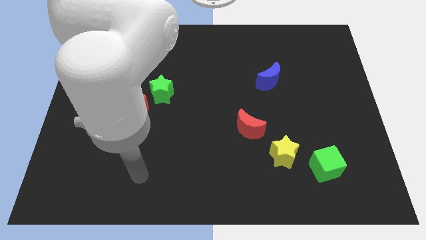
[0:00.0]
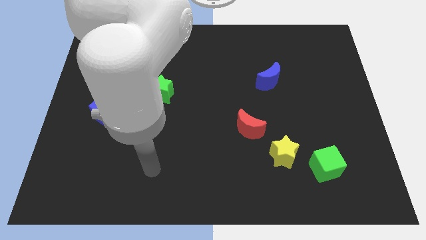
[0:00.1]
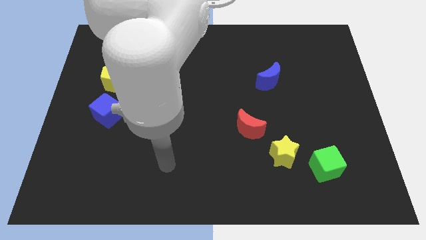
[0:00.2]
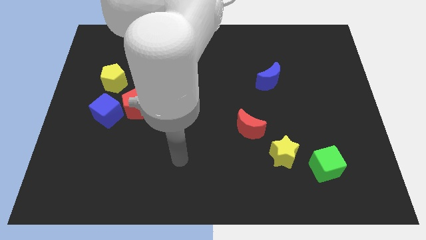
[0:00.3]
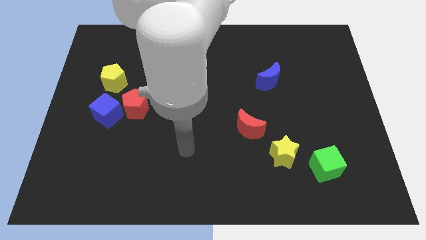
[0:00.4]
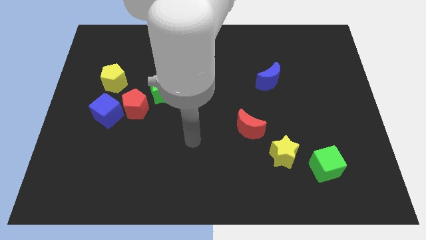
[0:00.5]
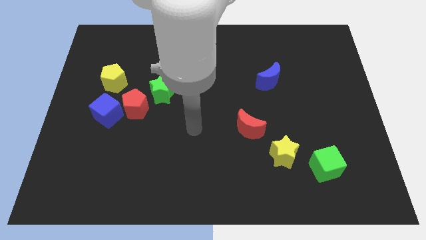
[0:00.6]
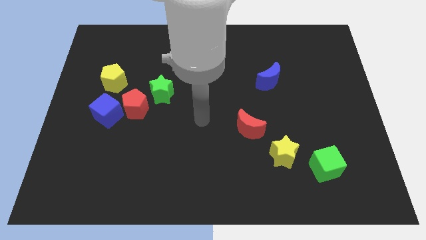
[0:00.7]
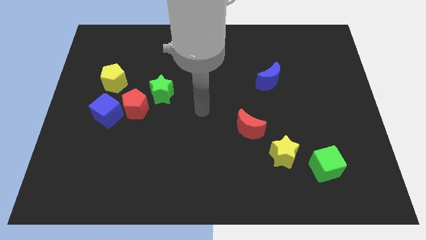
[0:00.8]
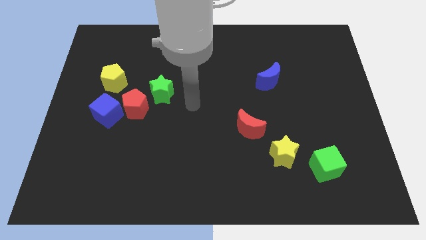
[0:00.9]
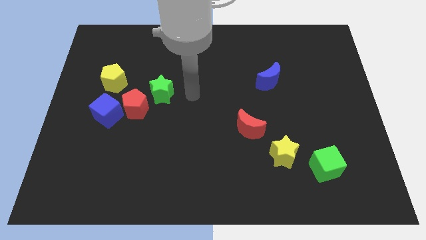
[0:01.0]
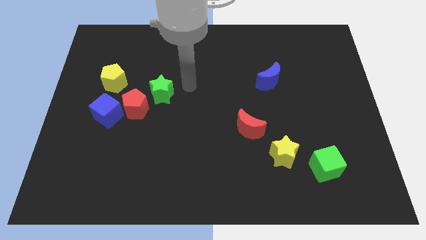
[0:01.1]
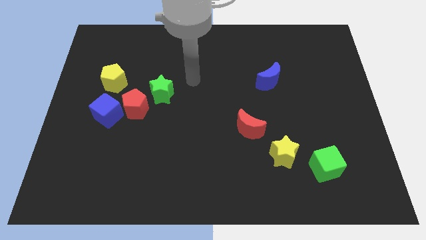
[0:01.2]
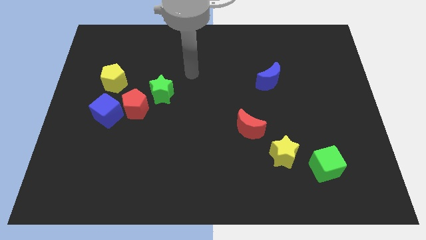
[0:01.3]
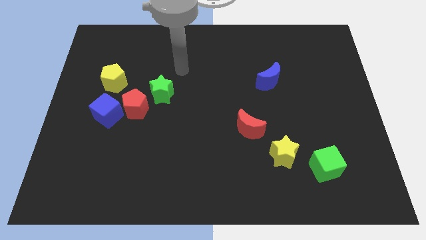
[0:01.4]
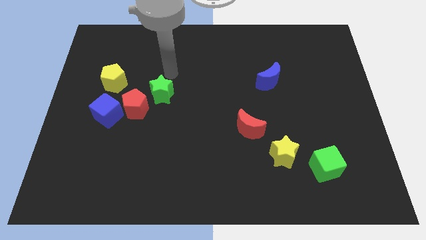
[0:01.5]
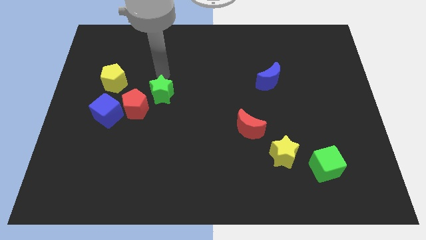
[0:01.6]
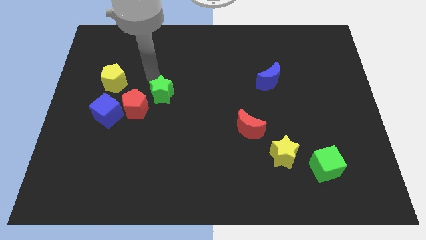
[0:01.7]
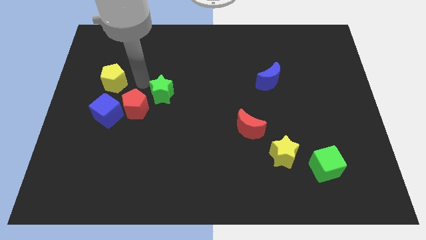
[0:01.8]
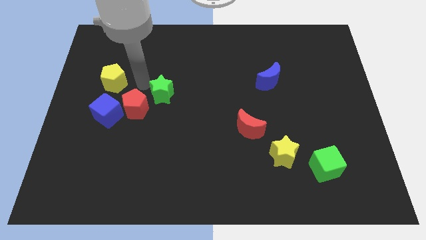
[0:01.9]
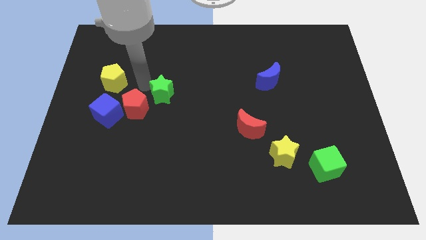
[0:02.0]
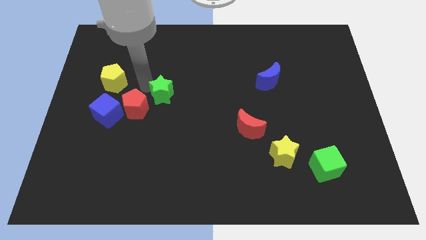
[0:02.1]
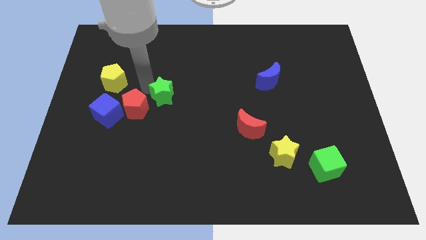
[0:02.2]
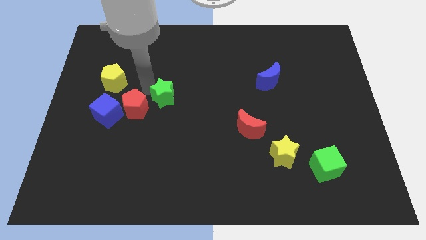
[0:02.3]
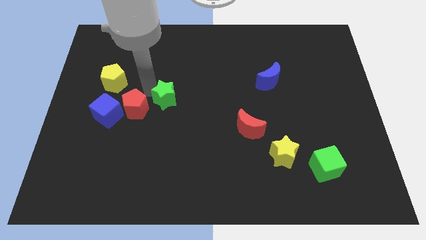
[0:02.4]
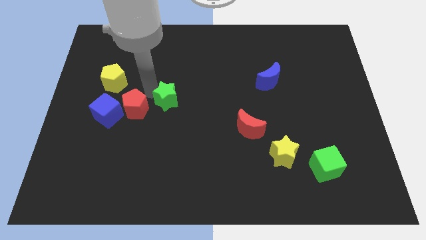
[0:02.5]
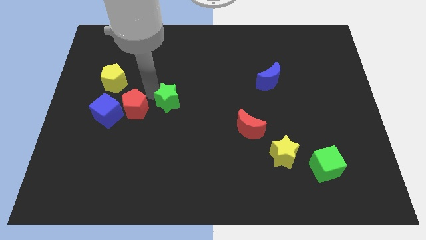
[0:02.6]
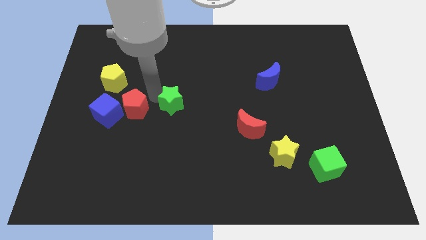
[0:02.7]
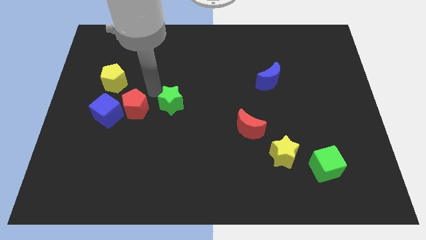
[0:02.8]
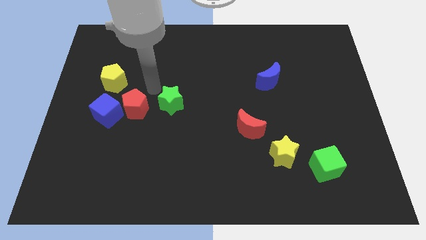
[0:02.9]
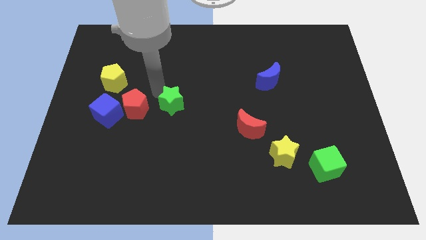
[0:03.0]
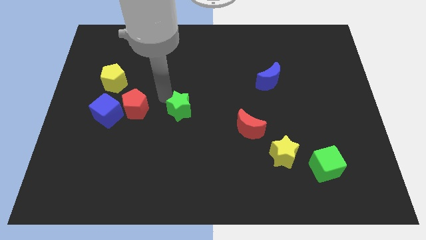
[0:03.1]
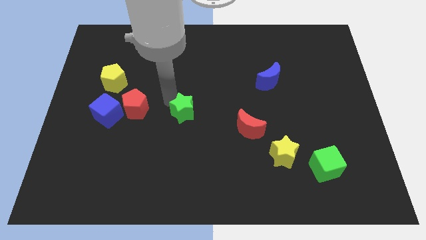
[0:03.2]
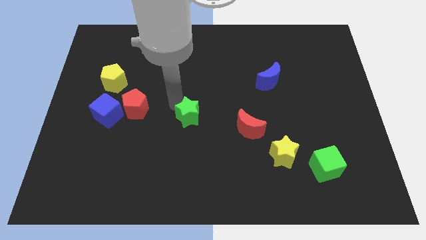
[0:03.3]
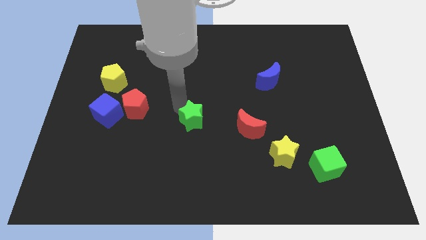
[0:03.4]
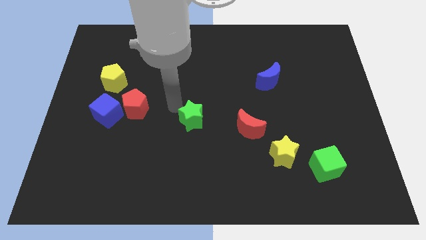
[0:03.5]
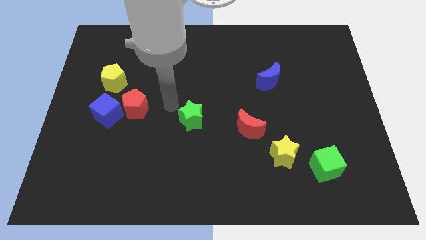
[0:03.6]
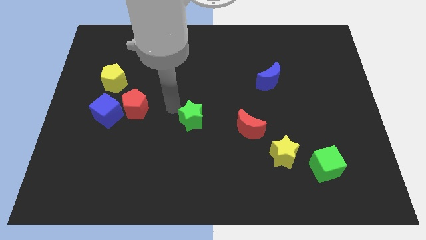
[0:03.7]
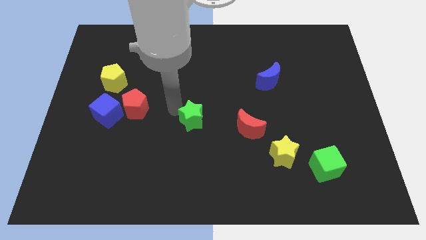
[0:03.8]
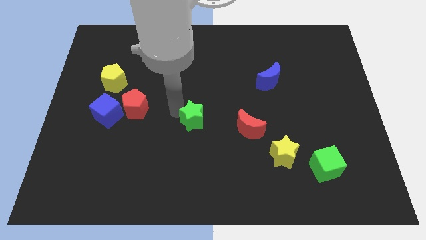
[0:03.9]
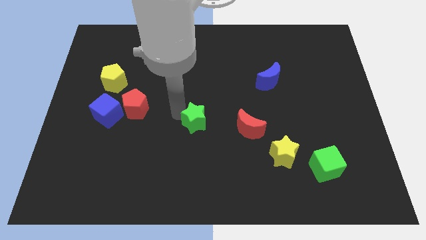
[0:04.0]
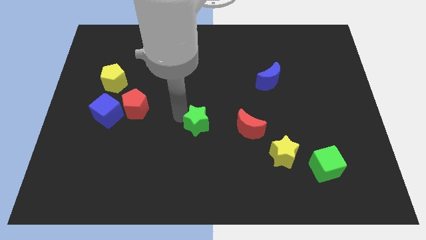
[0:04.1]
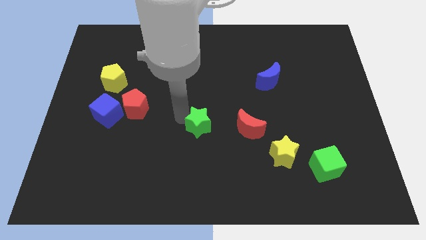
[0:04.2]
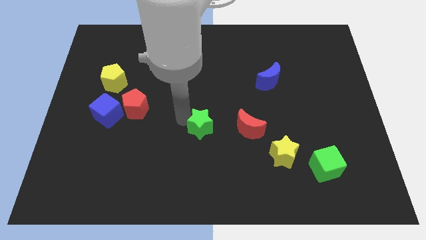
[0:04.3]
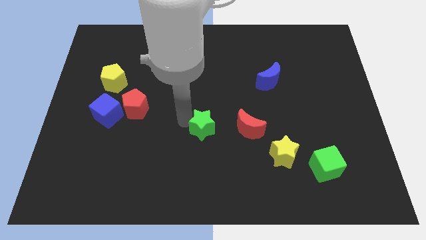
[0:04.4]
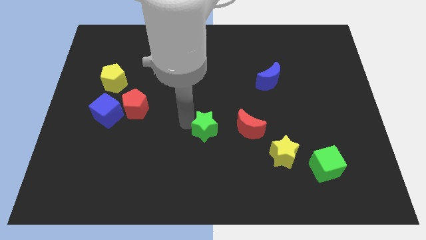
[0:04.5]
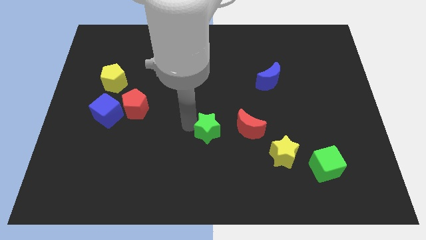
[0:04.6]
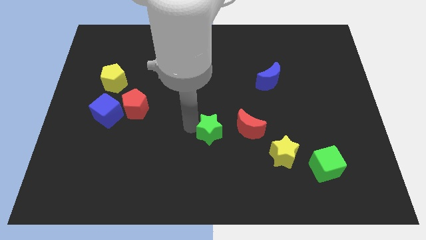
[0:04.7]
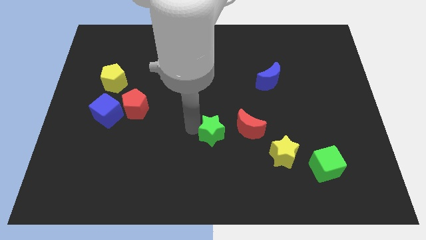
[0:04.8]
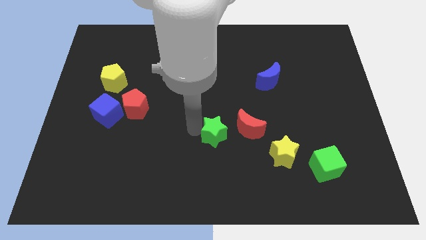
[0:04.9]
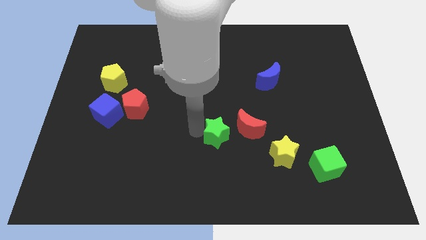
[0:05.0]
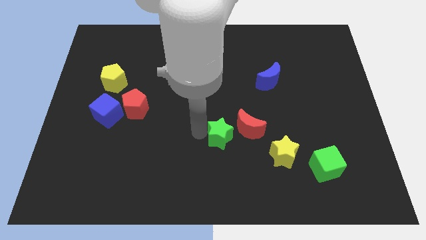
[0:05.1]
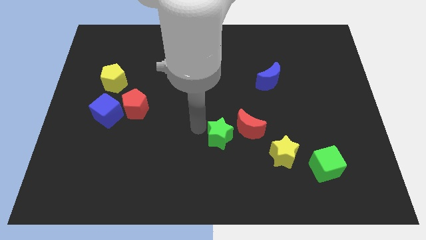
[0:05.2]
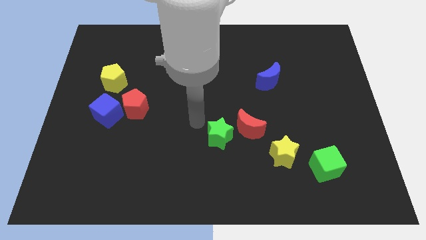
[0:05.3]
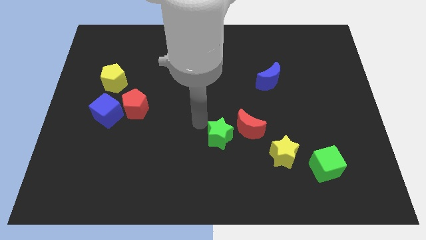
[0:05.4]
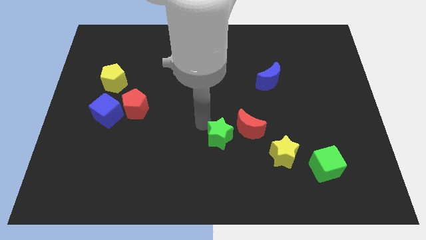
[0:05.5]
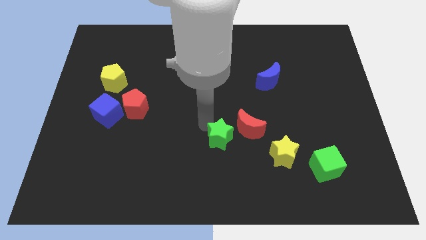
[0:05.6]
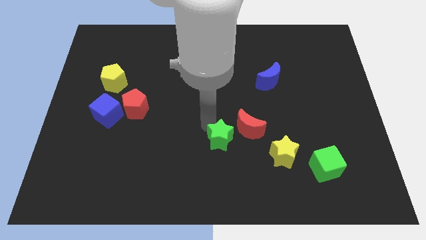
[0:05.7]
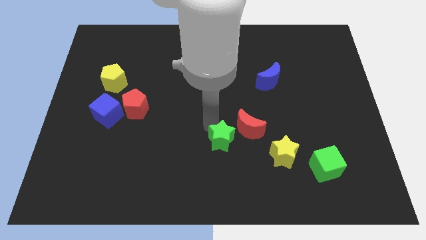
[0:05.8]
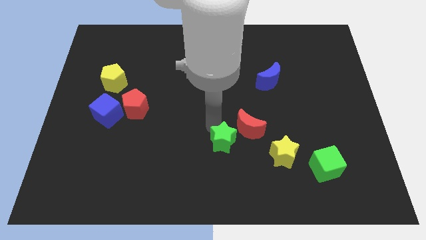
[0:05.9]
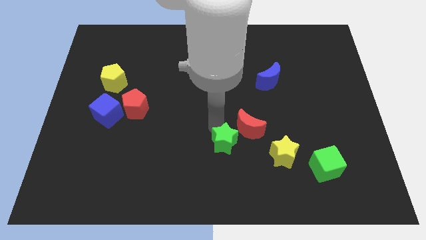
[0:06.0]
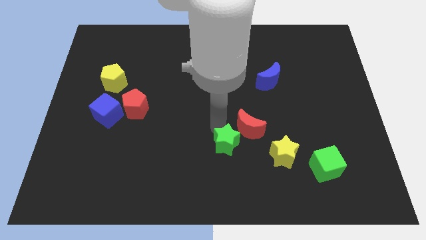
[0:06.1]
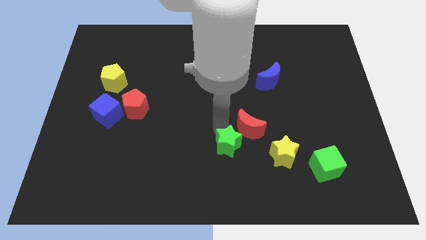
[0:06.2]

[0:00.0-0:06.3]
slide the green star below the red moon
